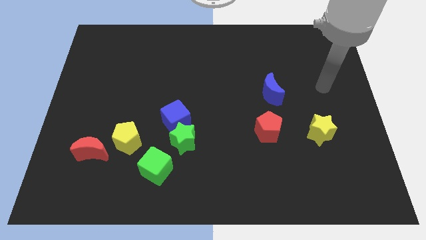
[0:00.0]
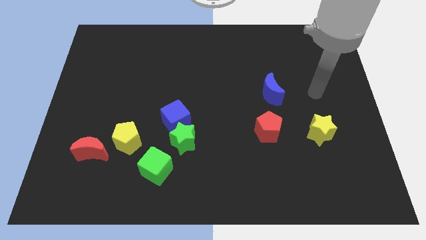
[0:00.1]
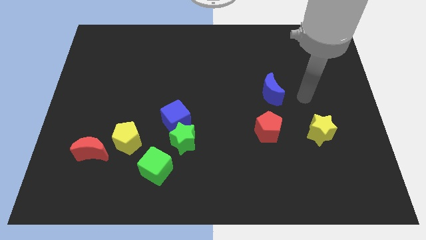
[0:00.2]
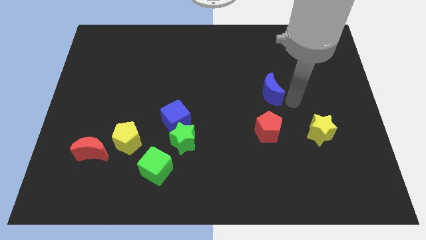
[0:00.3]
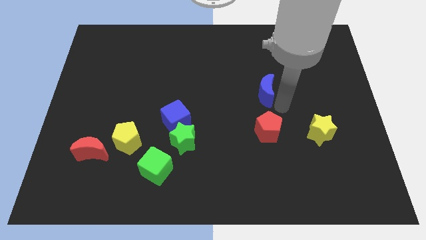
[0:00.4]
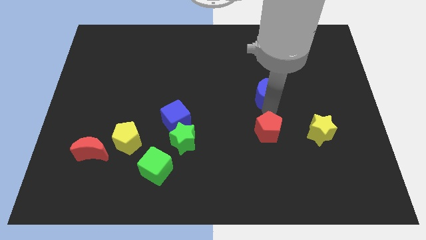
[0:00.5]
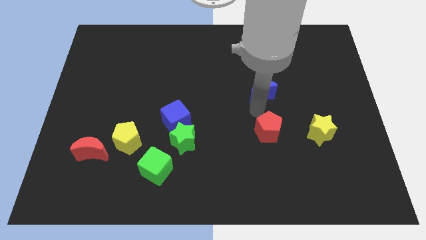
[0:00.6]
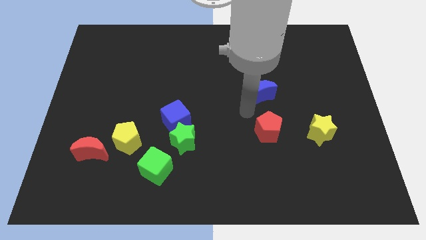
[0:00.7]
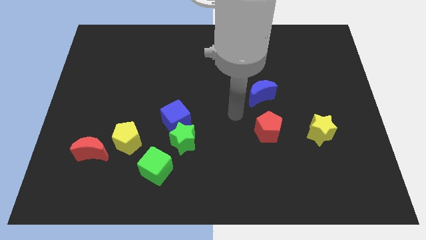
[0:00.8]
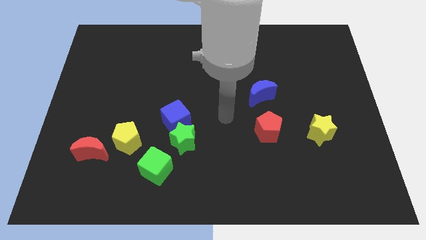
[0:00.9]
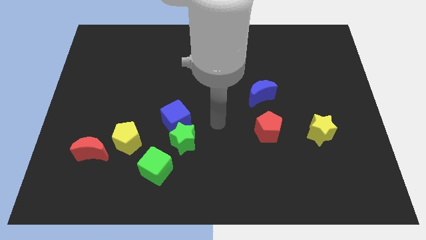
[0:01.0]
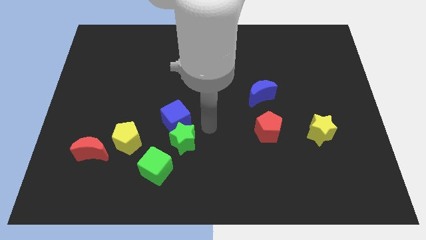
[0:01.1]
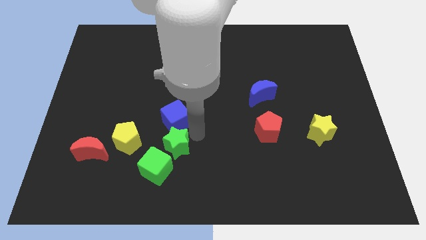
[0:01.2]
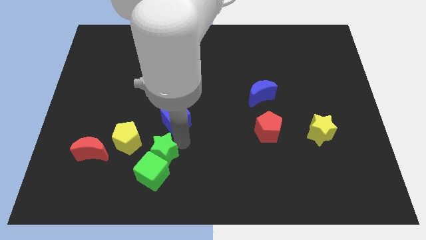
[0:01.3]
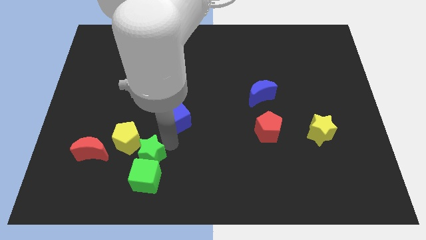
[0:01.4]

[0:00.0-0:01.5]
move the blue cube away from the green star

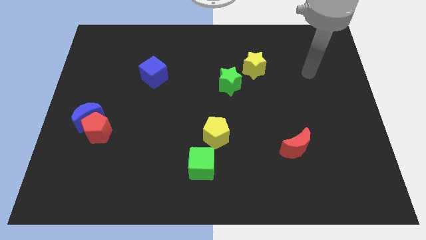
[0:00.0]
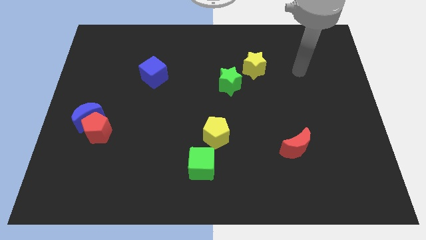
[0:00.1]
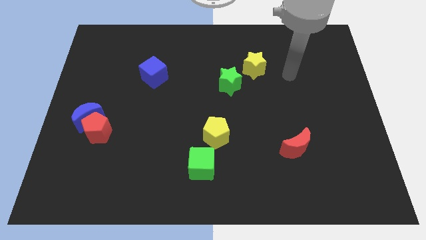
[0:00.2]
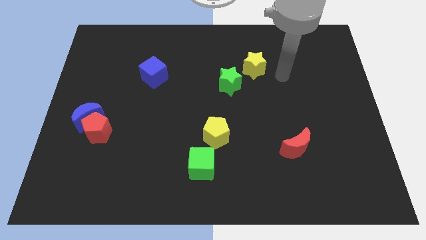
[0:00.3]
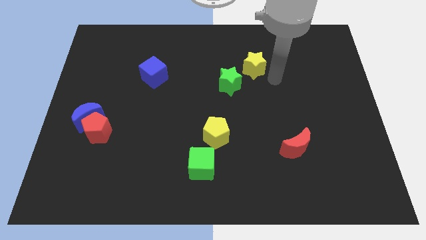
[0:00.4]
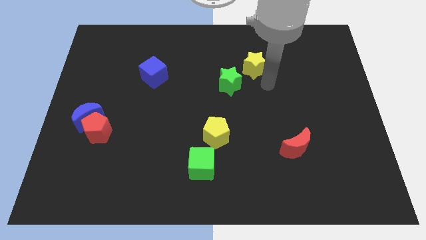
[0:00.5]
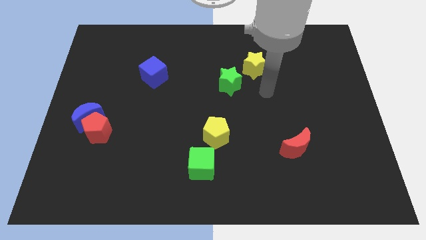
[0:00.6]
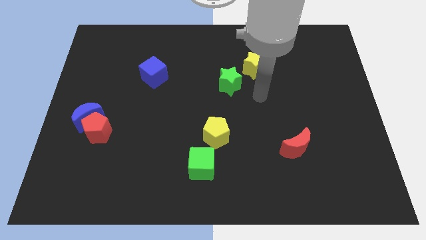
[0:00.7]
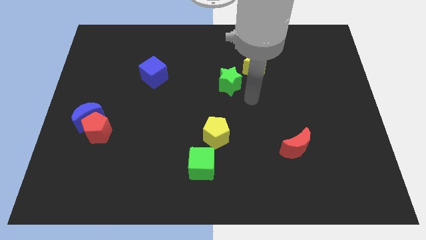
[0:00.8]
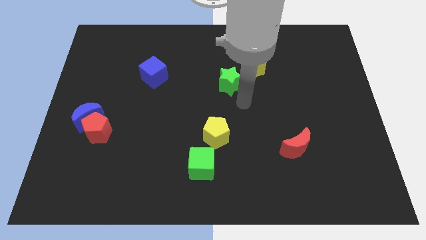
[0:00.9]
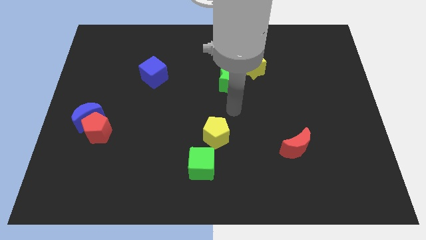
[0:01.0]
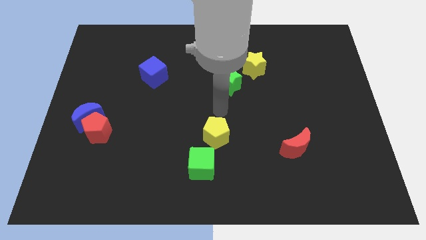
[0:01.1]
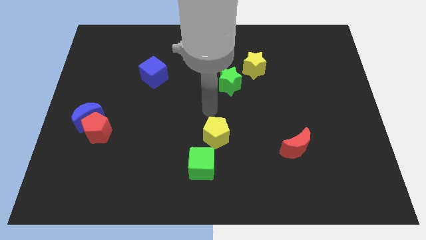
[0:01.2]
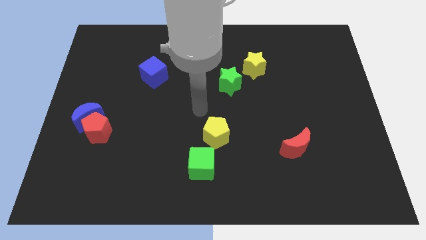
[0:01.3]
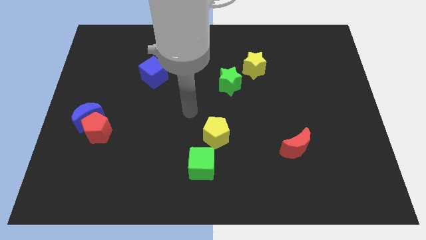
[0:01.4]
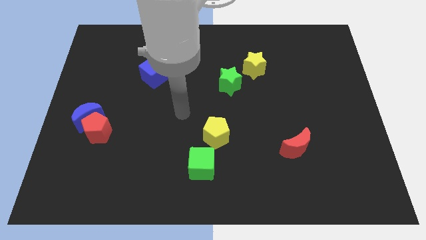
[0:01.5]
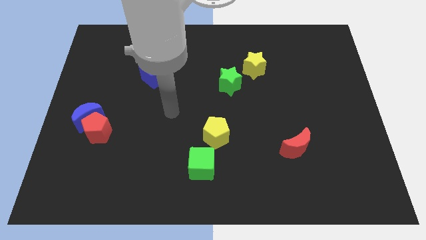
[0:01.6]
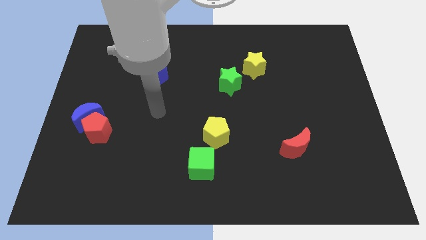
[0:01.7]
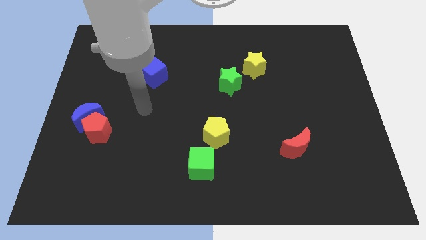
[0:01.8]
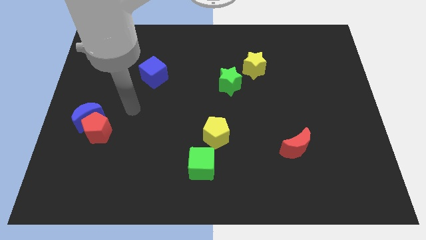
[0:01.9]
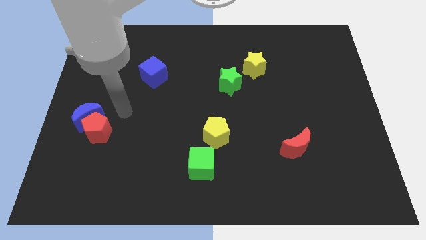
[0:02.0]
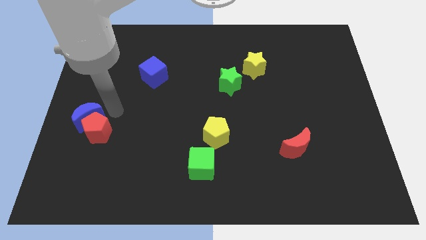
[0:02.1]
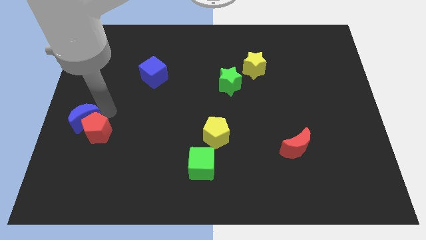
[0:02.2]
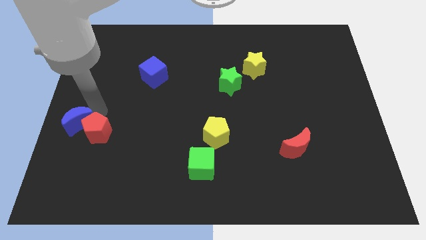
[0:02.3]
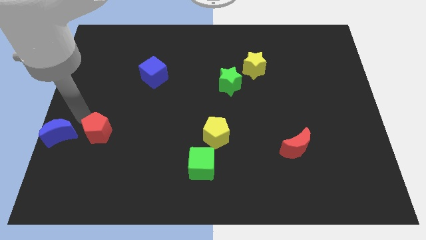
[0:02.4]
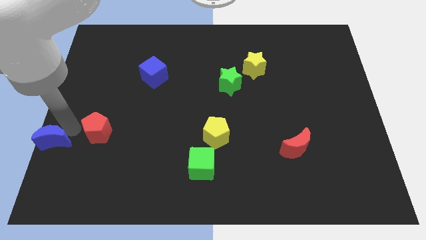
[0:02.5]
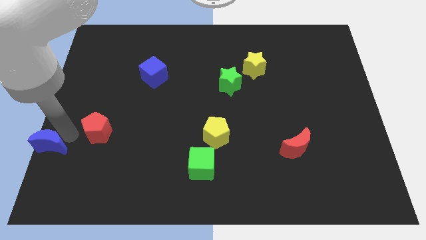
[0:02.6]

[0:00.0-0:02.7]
pull the red pentagon apart from the blue moon

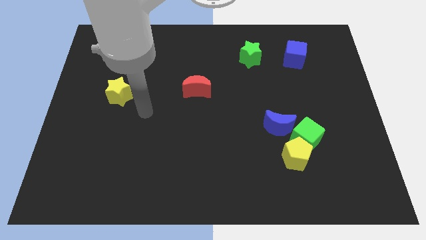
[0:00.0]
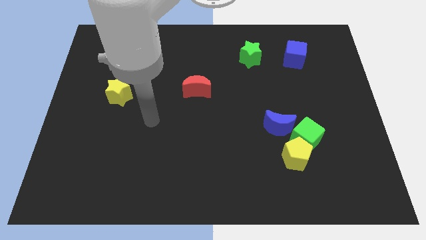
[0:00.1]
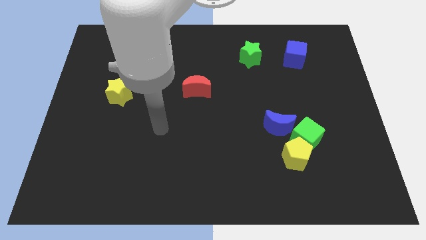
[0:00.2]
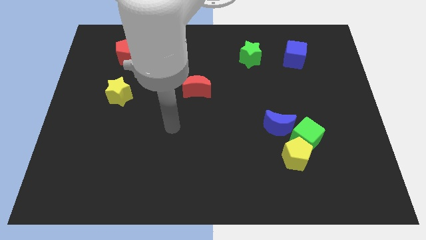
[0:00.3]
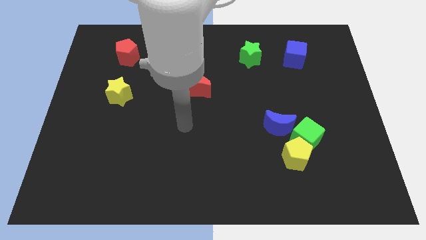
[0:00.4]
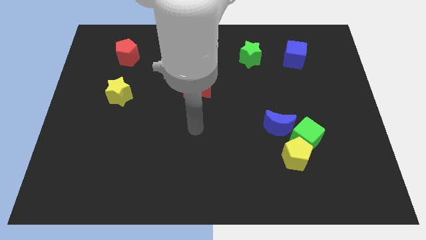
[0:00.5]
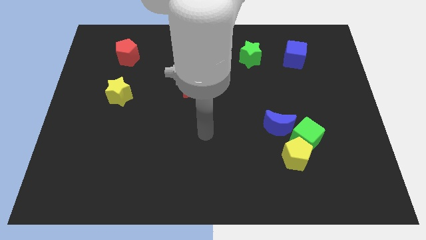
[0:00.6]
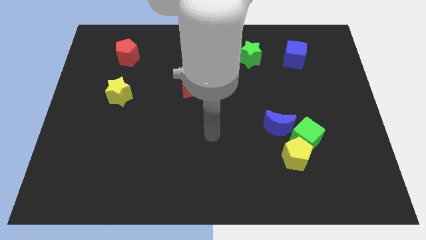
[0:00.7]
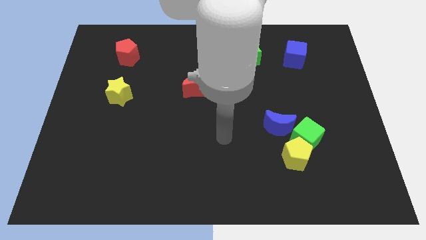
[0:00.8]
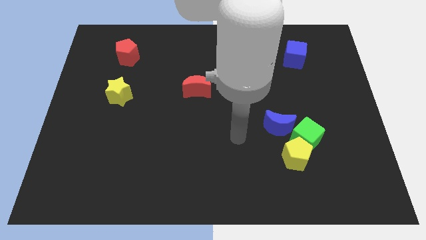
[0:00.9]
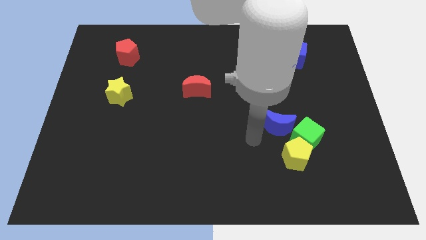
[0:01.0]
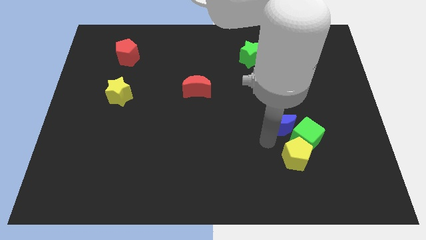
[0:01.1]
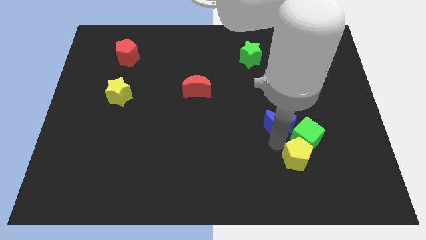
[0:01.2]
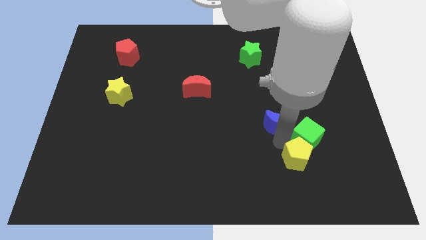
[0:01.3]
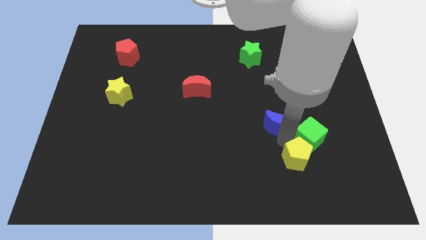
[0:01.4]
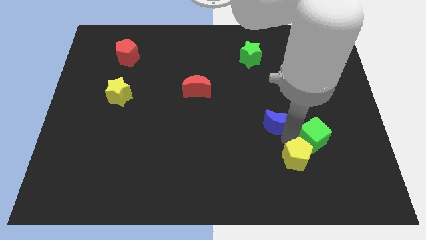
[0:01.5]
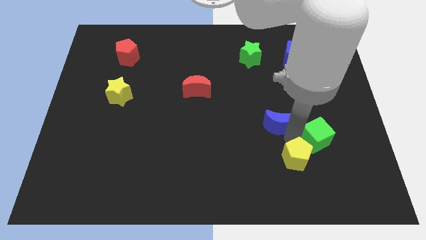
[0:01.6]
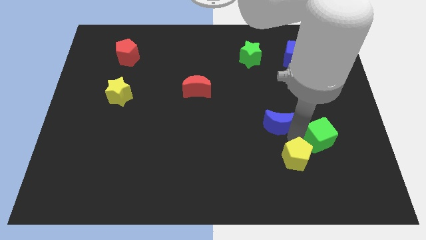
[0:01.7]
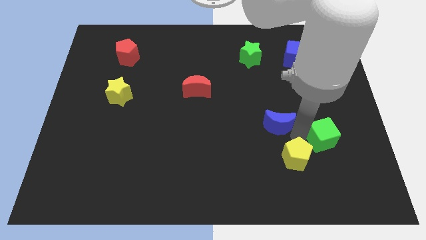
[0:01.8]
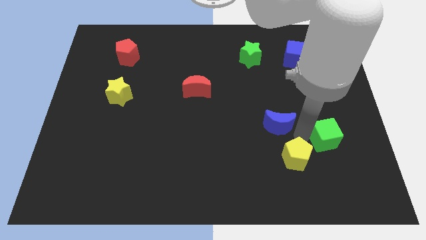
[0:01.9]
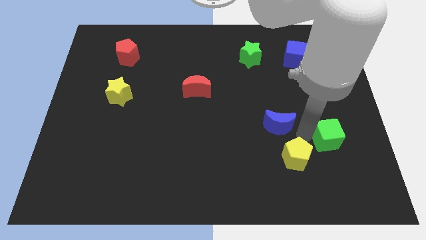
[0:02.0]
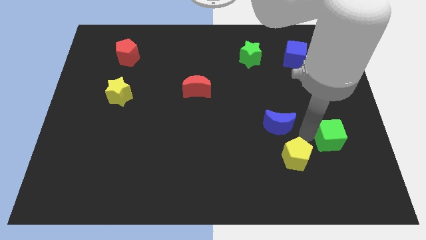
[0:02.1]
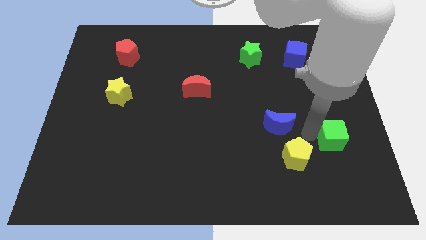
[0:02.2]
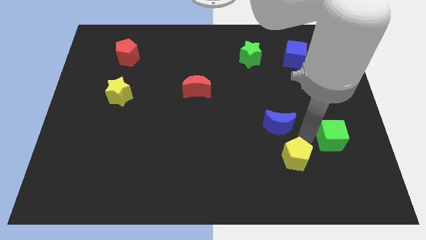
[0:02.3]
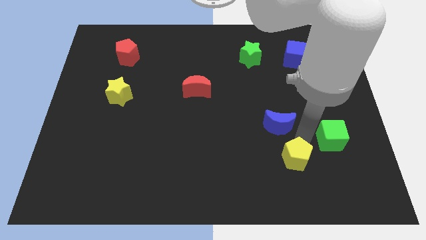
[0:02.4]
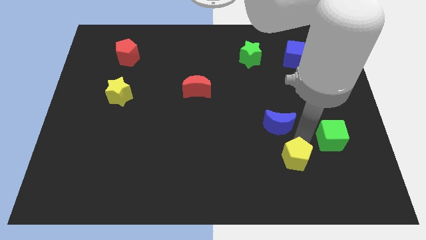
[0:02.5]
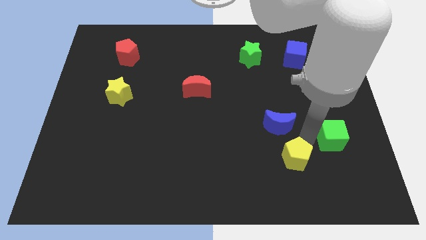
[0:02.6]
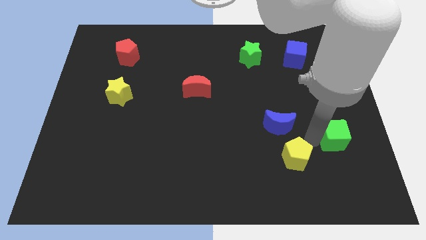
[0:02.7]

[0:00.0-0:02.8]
move the green cube away from the yellow pentagon and blue moon

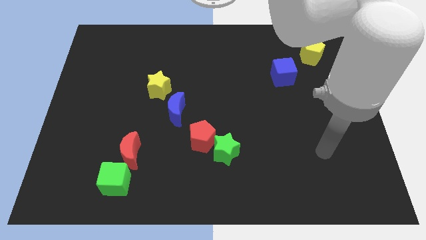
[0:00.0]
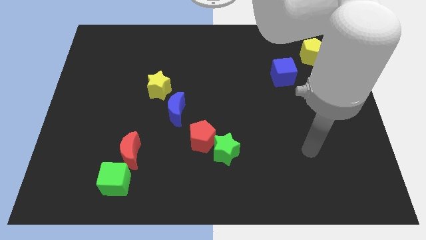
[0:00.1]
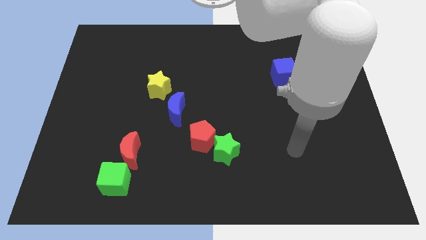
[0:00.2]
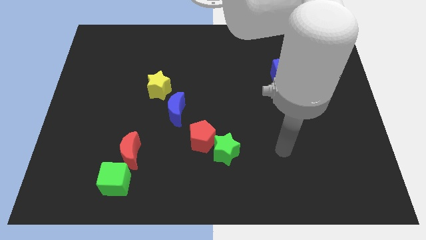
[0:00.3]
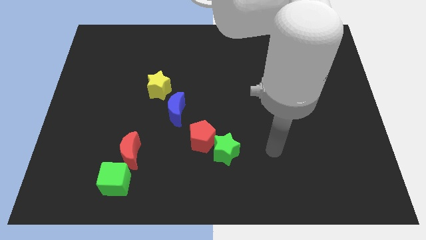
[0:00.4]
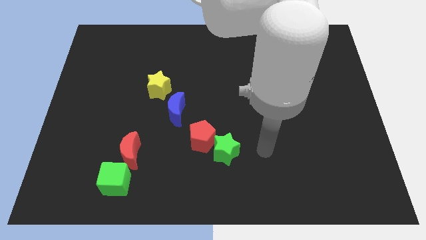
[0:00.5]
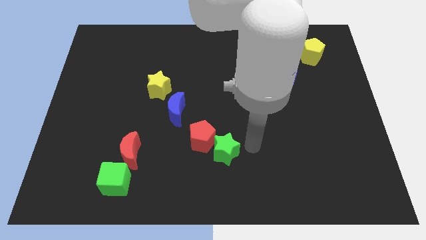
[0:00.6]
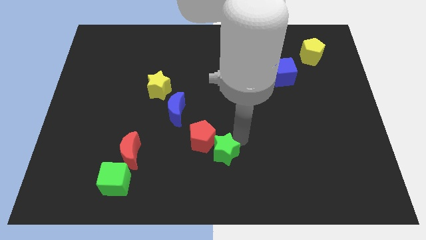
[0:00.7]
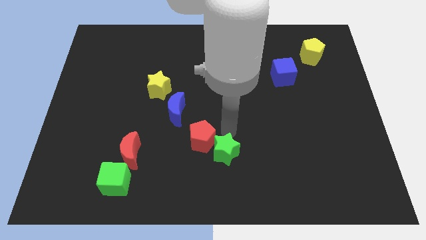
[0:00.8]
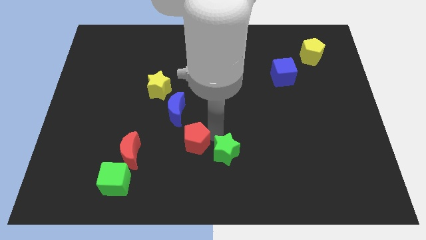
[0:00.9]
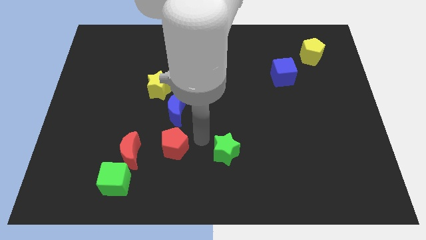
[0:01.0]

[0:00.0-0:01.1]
separate the green star from the red pentagon

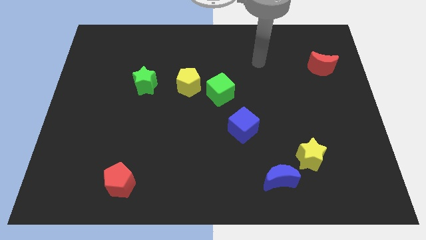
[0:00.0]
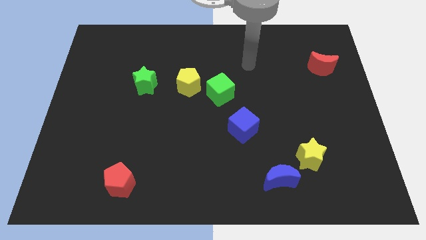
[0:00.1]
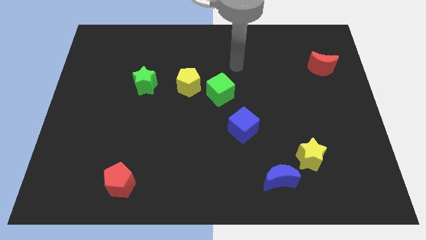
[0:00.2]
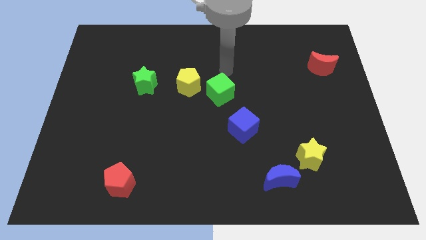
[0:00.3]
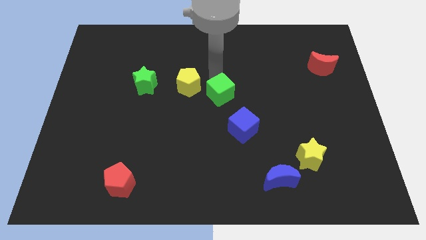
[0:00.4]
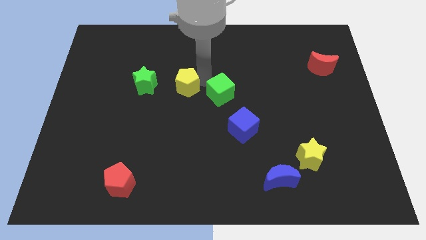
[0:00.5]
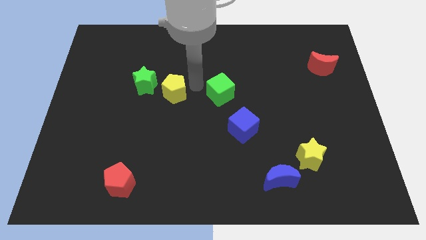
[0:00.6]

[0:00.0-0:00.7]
pull the green cube apart from the yellow pentagon

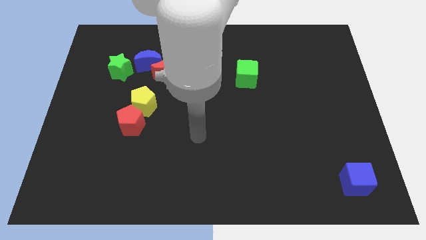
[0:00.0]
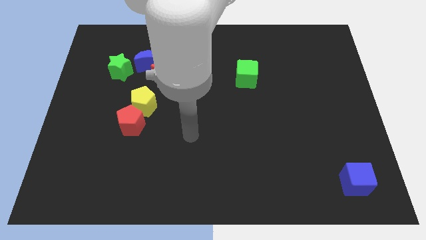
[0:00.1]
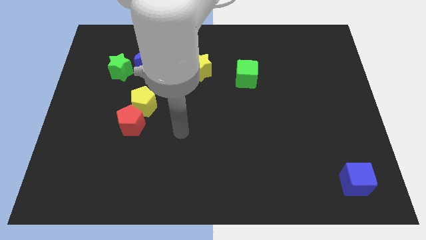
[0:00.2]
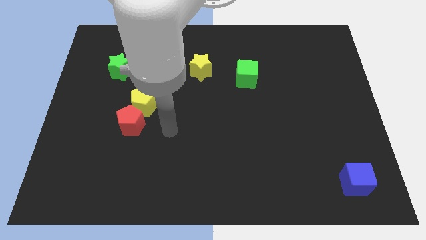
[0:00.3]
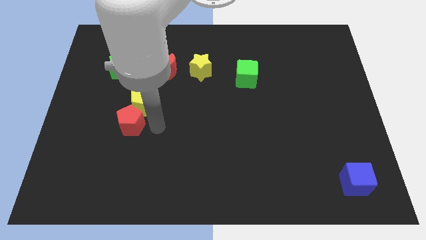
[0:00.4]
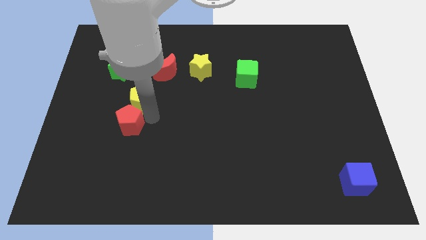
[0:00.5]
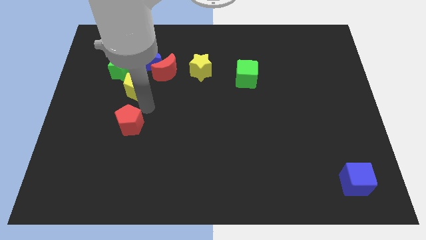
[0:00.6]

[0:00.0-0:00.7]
move the red pentagon away from the yellow pentagon
